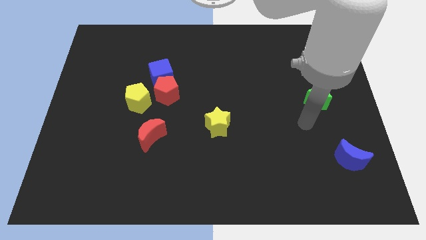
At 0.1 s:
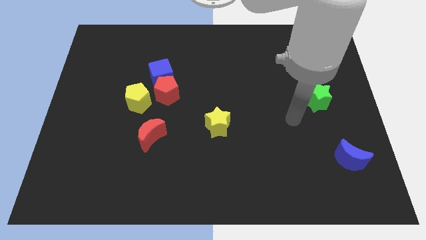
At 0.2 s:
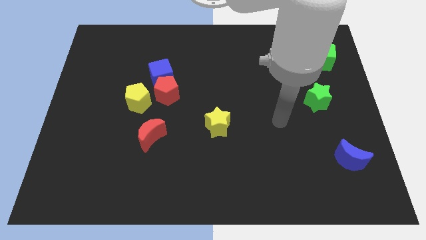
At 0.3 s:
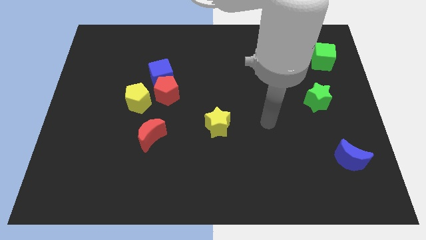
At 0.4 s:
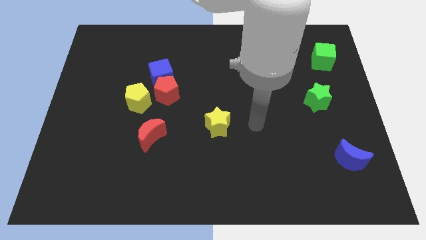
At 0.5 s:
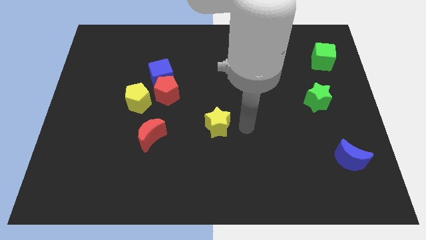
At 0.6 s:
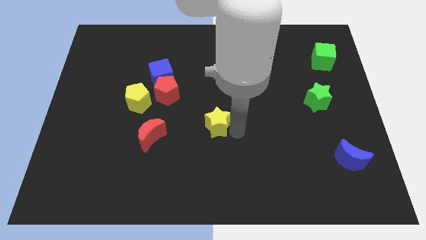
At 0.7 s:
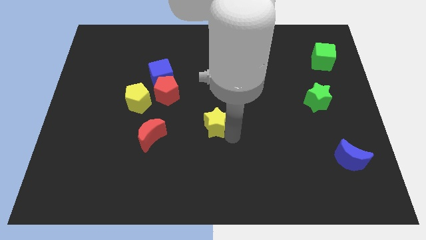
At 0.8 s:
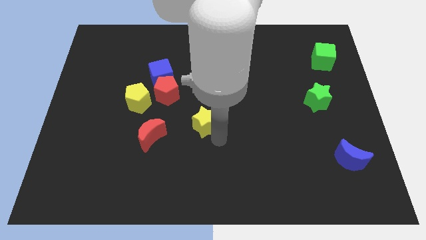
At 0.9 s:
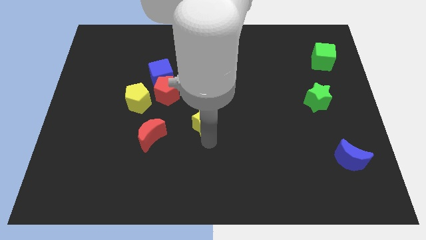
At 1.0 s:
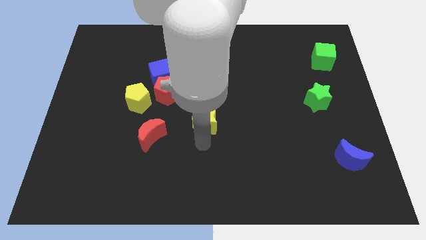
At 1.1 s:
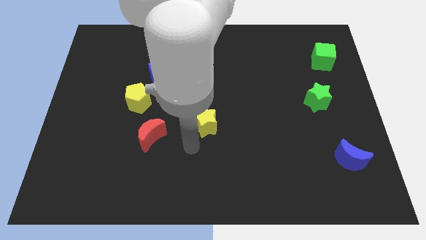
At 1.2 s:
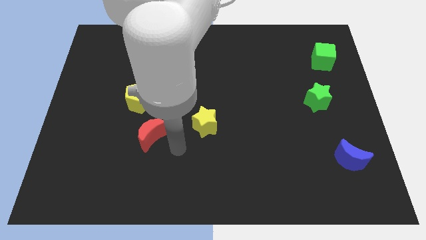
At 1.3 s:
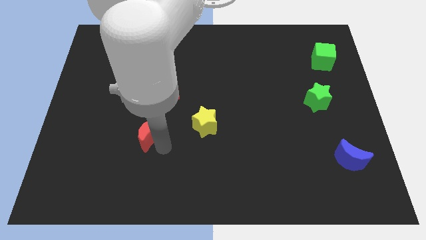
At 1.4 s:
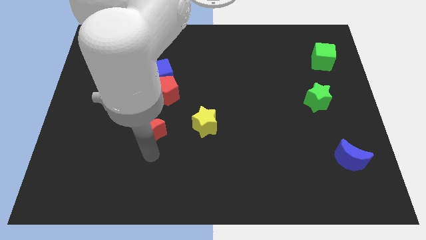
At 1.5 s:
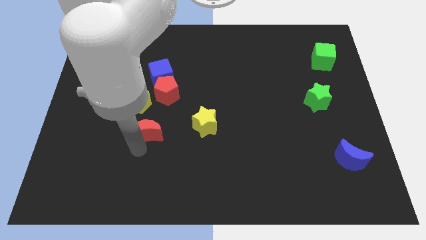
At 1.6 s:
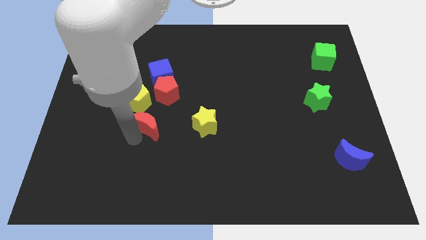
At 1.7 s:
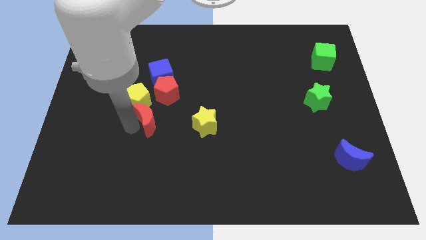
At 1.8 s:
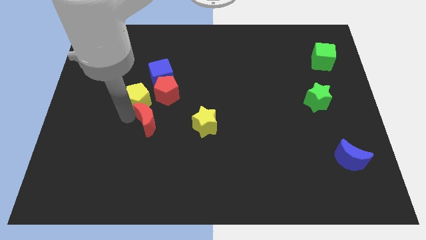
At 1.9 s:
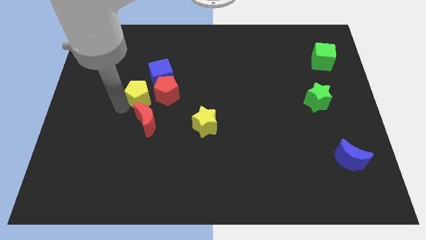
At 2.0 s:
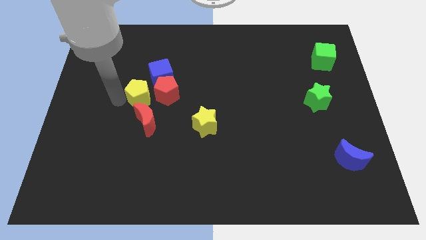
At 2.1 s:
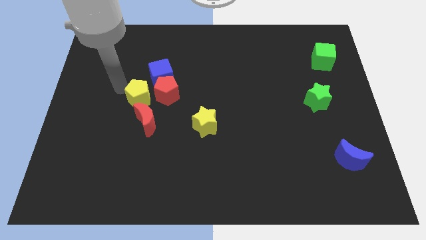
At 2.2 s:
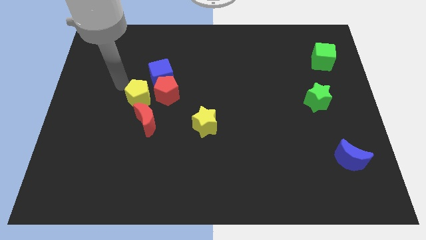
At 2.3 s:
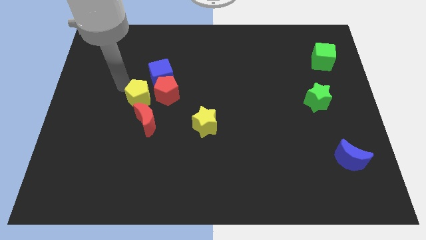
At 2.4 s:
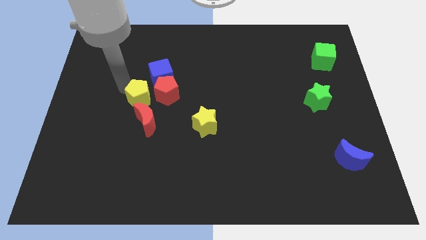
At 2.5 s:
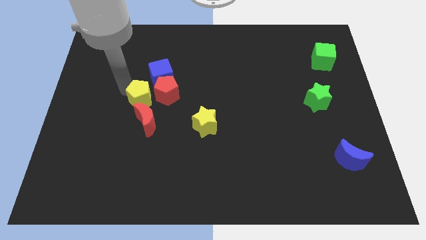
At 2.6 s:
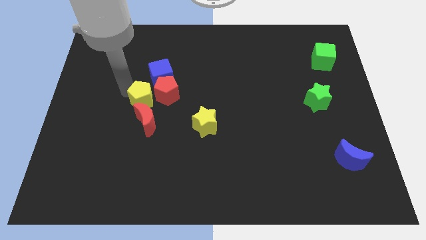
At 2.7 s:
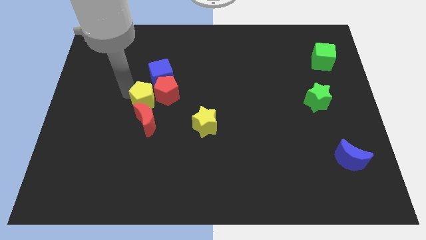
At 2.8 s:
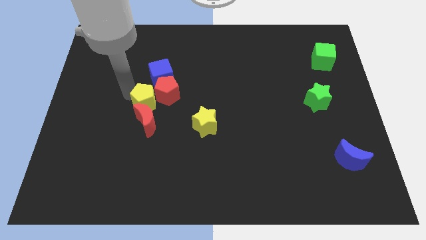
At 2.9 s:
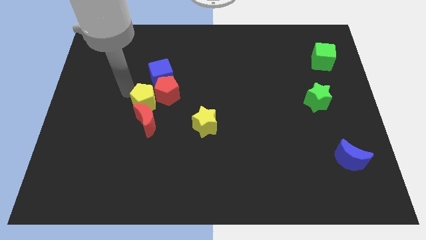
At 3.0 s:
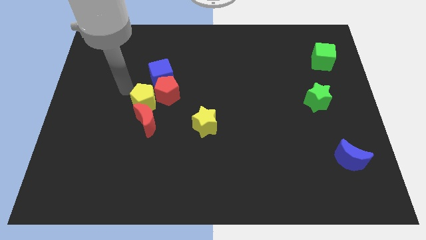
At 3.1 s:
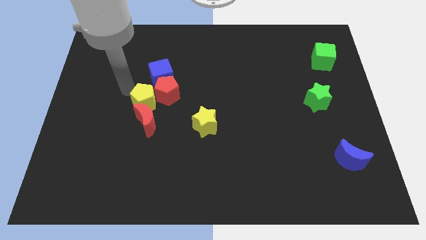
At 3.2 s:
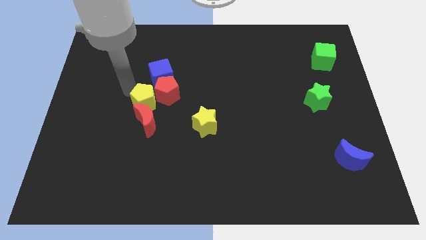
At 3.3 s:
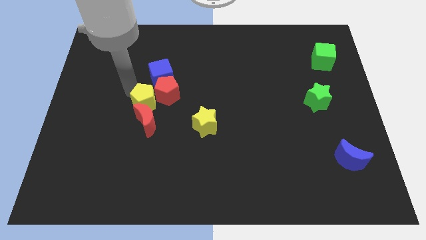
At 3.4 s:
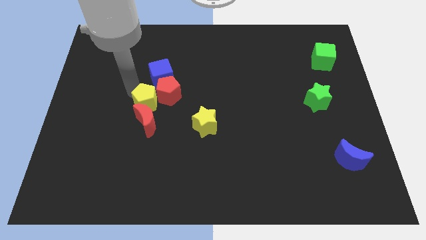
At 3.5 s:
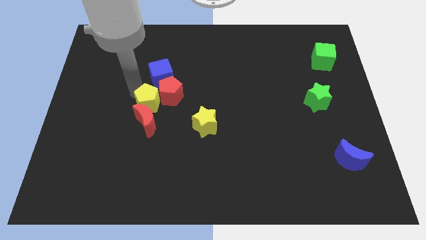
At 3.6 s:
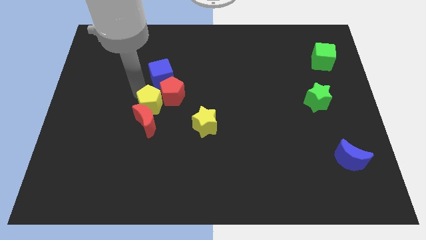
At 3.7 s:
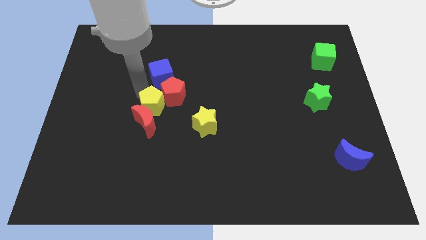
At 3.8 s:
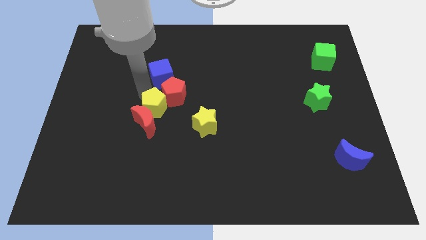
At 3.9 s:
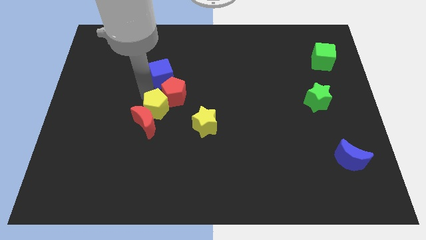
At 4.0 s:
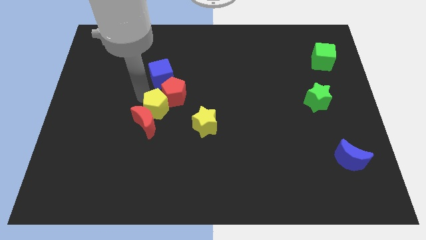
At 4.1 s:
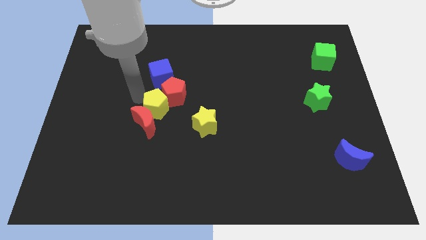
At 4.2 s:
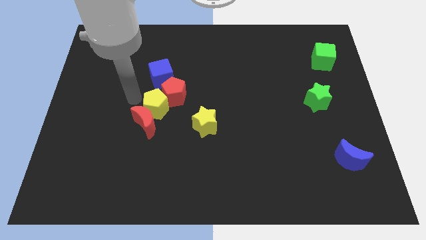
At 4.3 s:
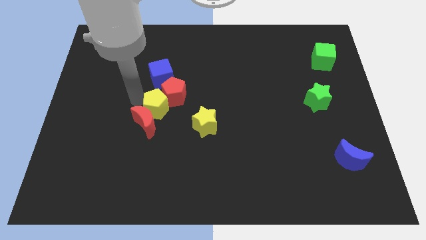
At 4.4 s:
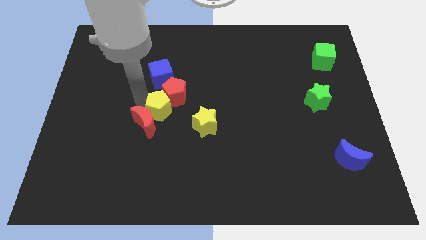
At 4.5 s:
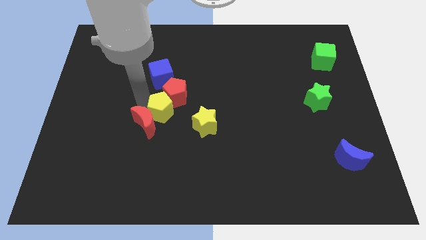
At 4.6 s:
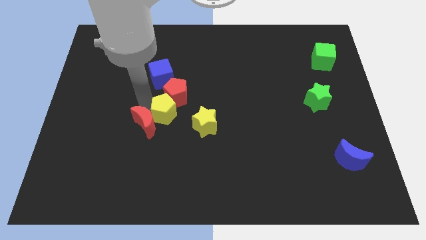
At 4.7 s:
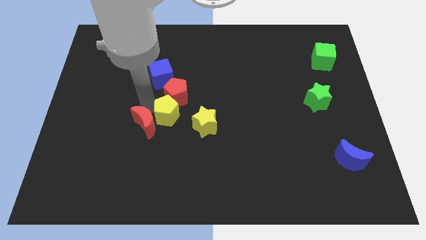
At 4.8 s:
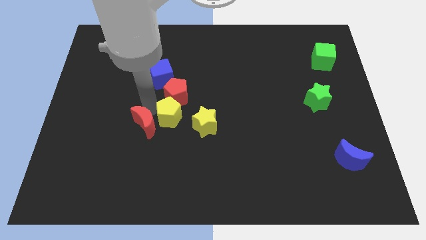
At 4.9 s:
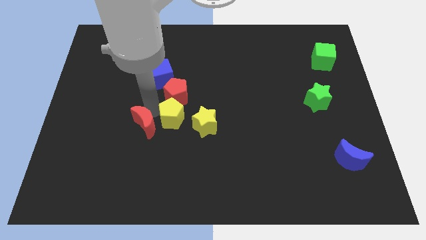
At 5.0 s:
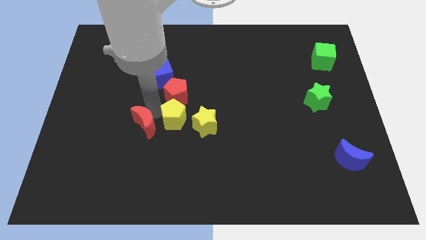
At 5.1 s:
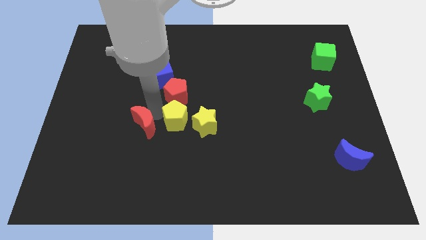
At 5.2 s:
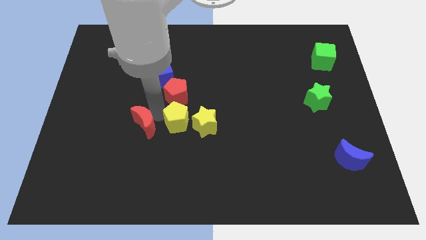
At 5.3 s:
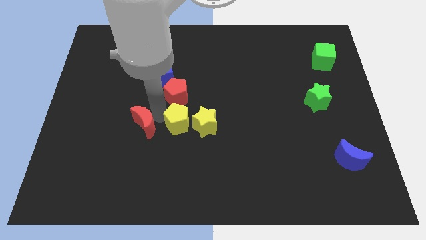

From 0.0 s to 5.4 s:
put the yellow pentagon to the yellow star

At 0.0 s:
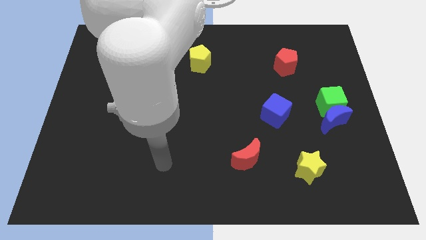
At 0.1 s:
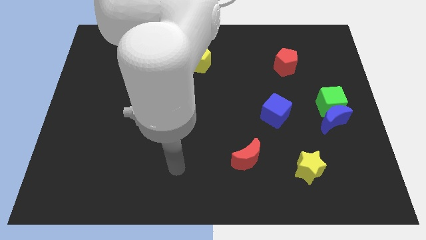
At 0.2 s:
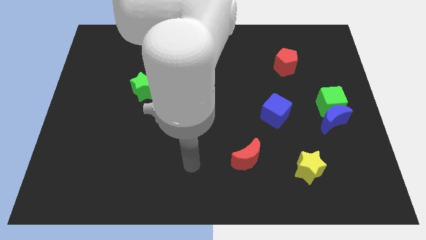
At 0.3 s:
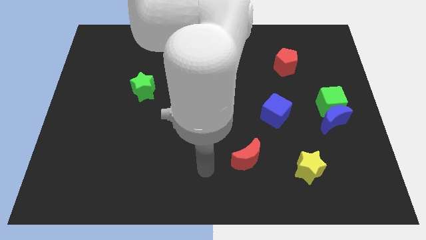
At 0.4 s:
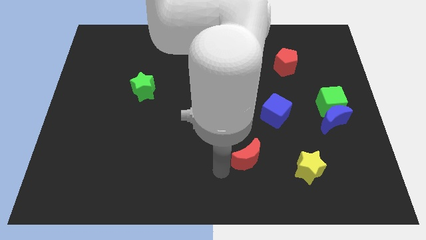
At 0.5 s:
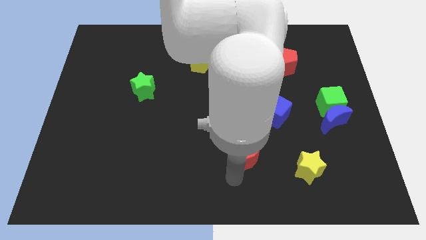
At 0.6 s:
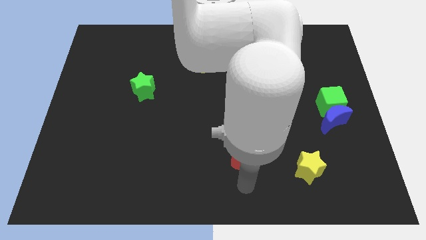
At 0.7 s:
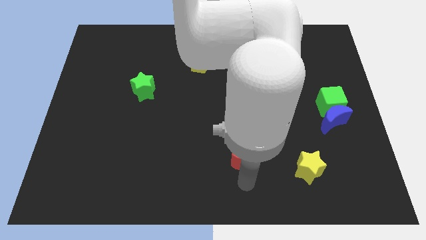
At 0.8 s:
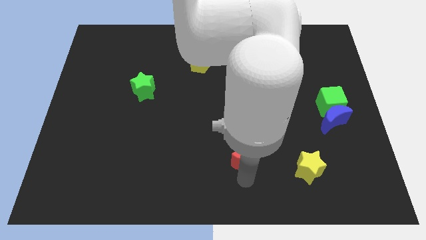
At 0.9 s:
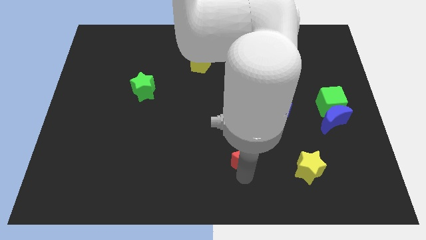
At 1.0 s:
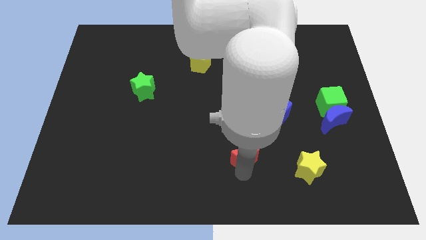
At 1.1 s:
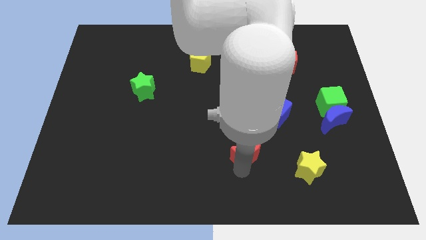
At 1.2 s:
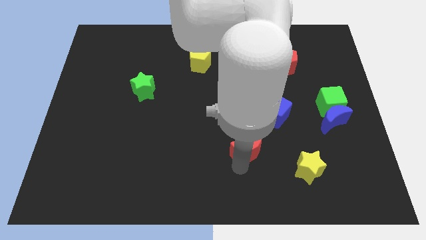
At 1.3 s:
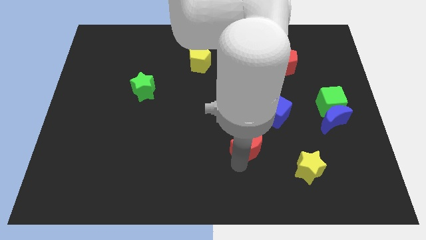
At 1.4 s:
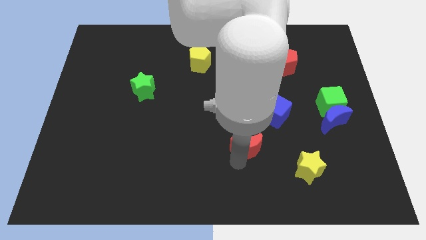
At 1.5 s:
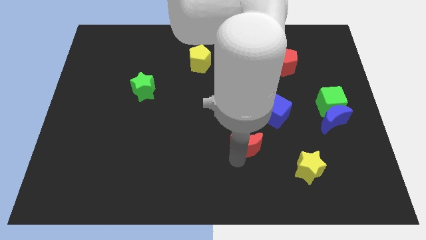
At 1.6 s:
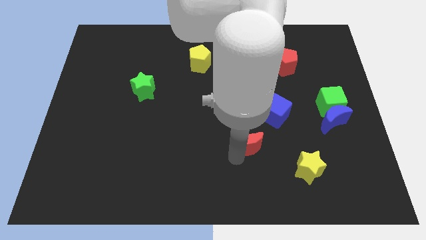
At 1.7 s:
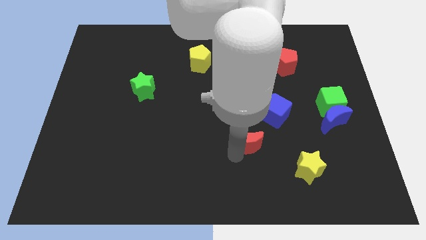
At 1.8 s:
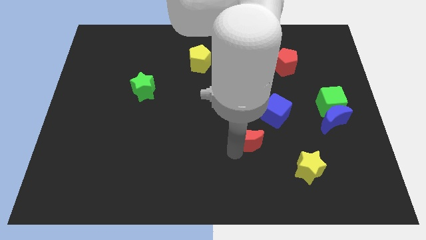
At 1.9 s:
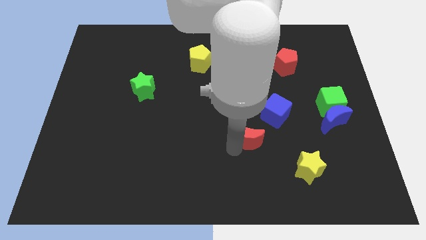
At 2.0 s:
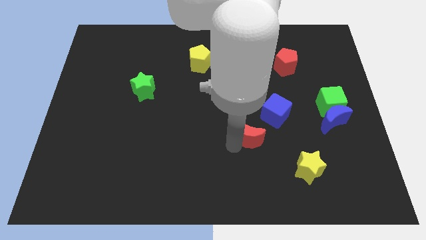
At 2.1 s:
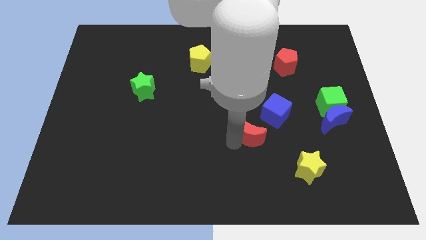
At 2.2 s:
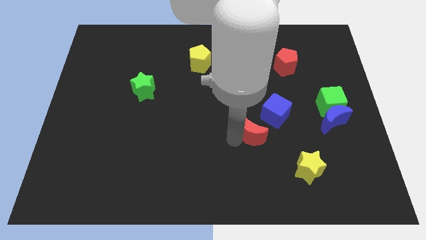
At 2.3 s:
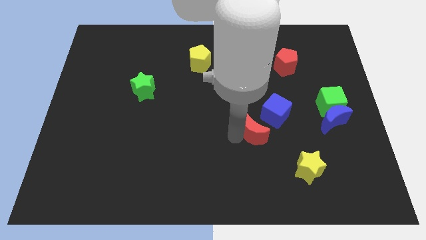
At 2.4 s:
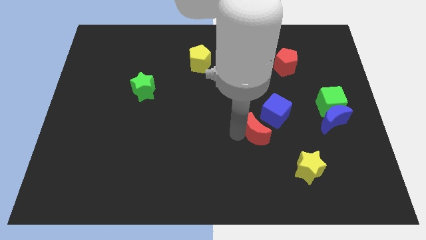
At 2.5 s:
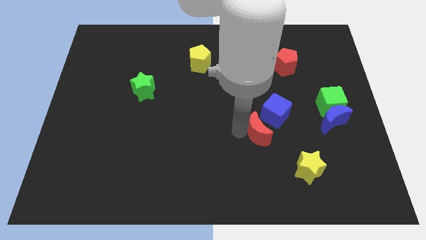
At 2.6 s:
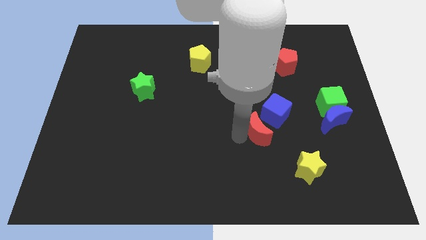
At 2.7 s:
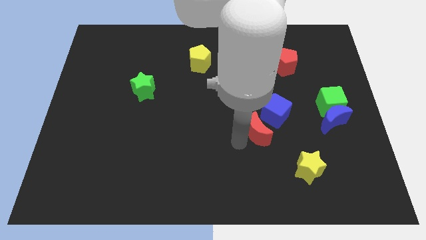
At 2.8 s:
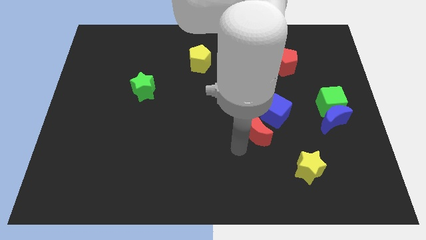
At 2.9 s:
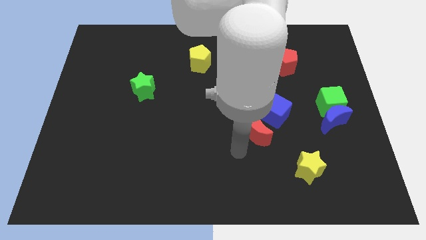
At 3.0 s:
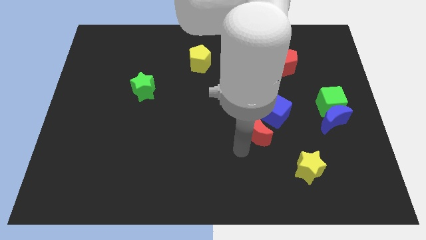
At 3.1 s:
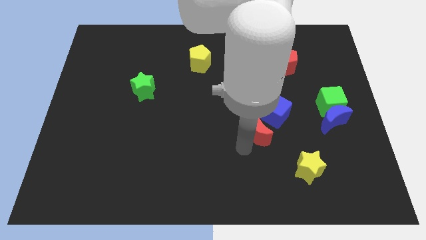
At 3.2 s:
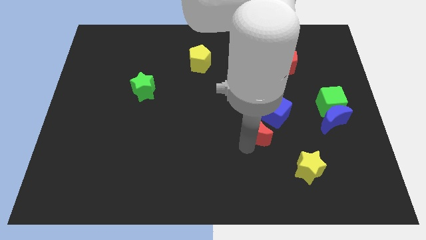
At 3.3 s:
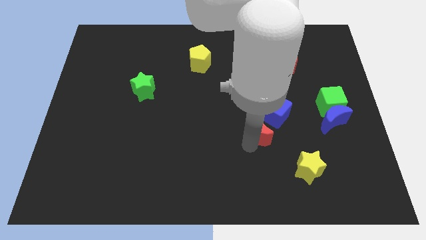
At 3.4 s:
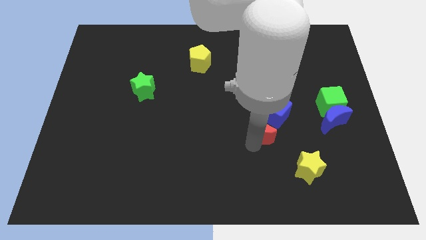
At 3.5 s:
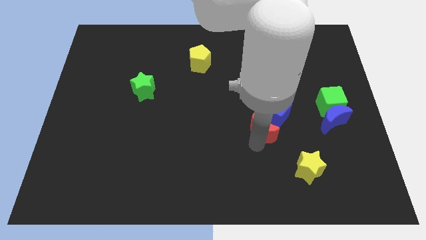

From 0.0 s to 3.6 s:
slide the red moon to the blue cube
